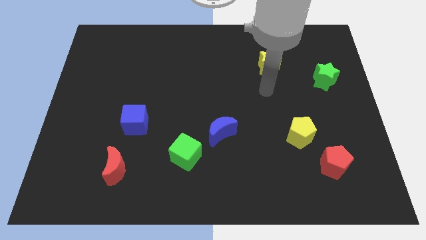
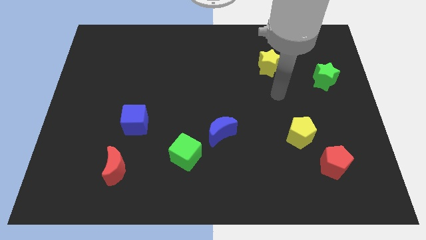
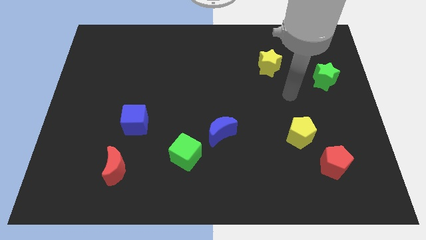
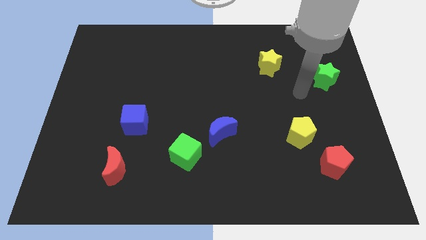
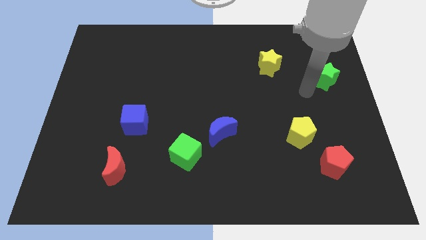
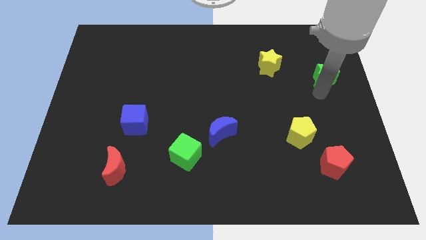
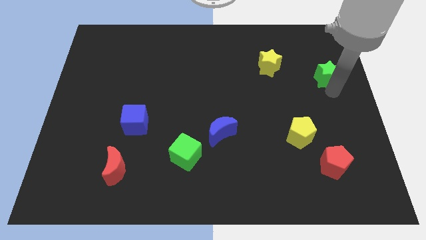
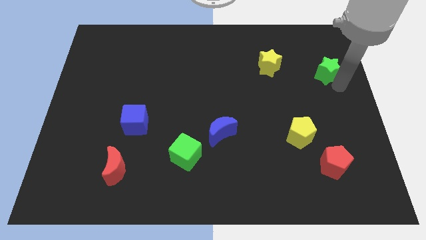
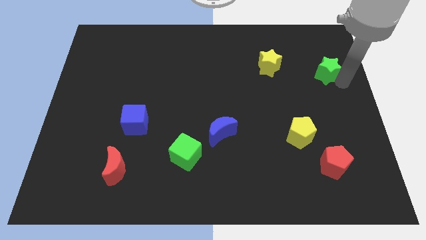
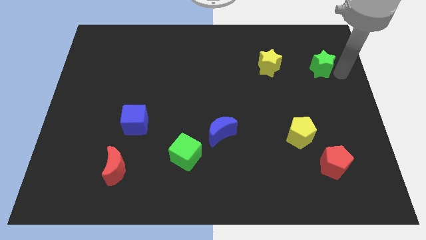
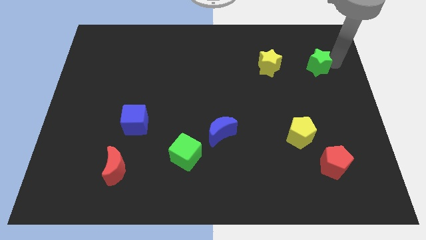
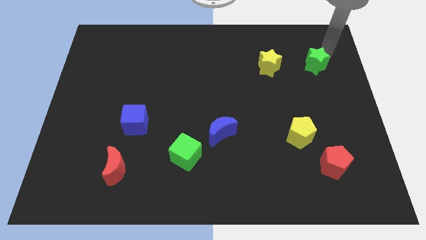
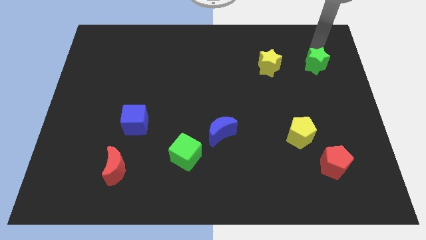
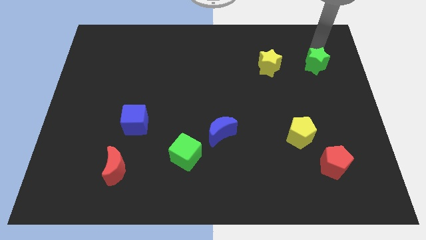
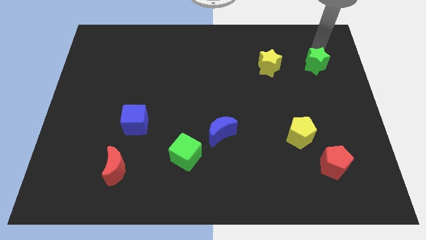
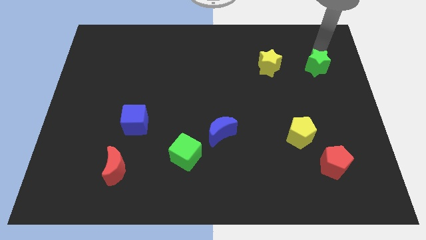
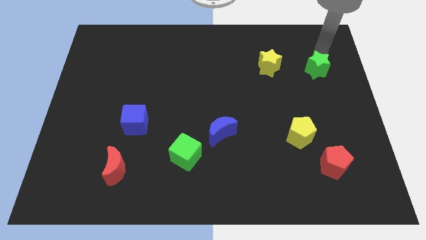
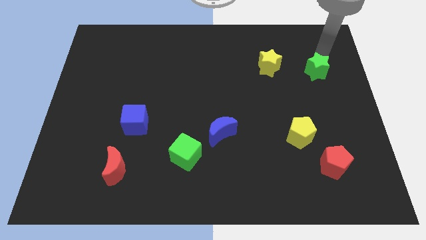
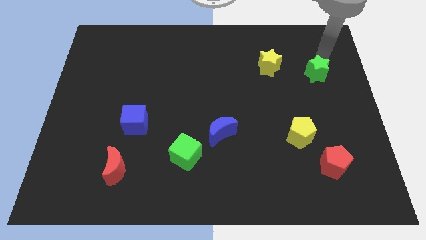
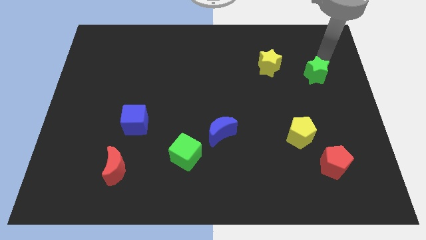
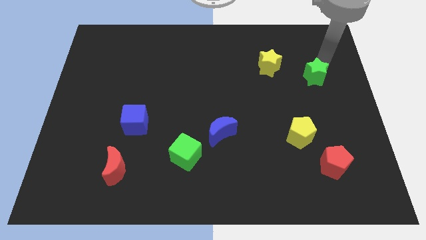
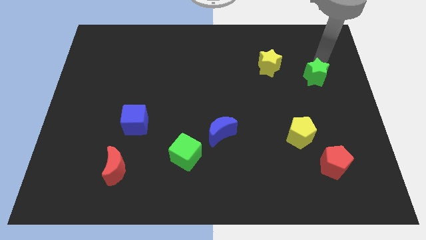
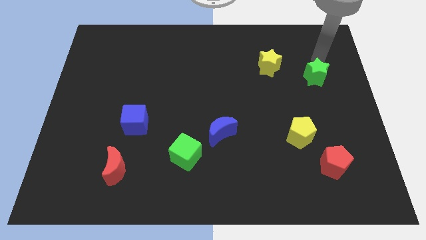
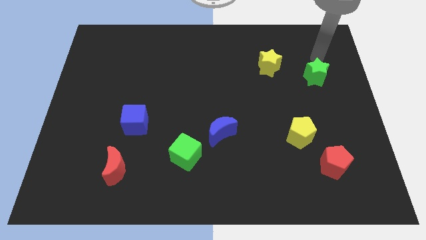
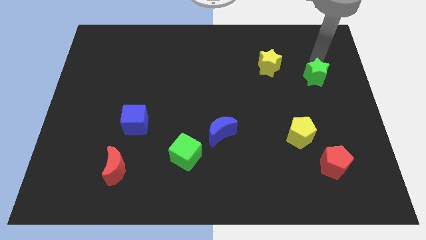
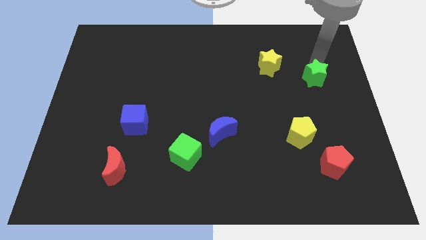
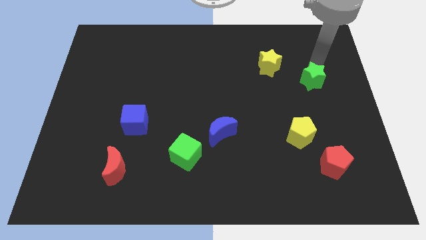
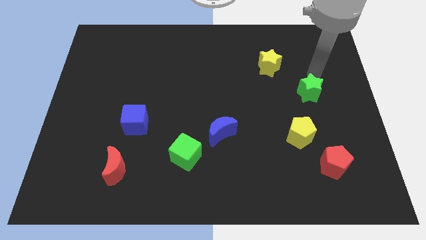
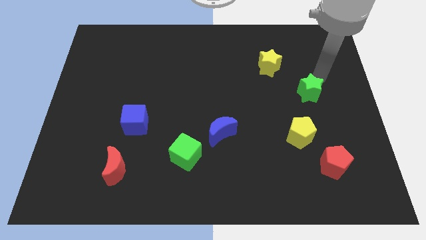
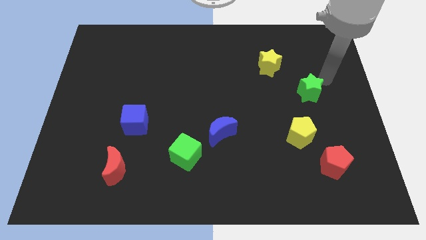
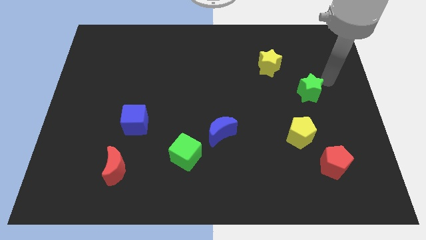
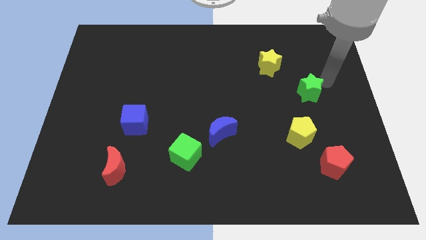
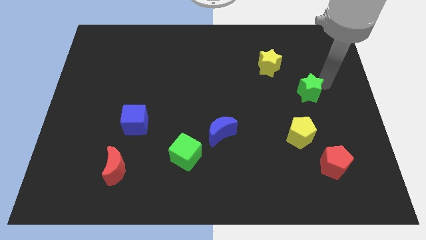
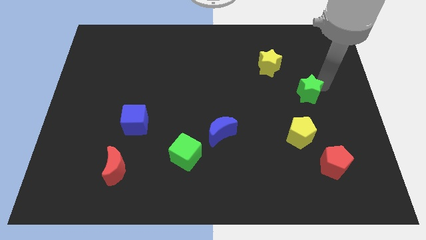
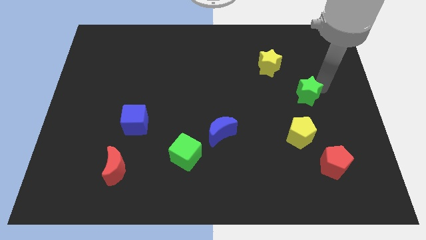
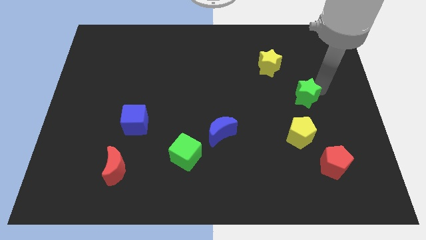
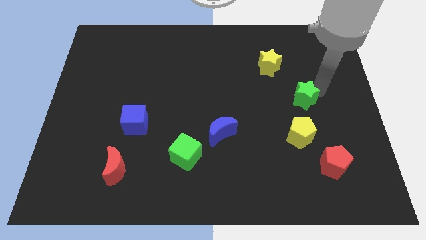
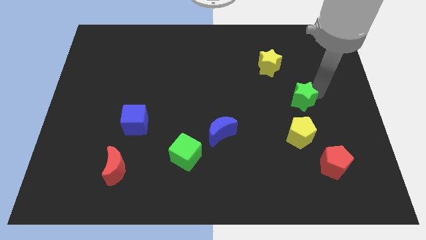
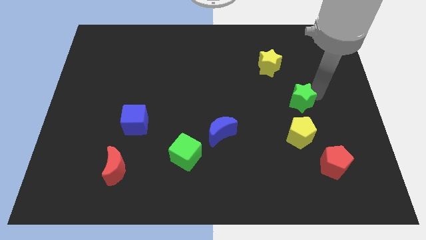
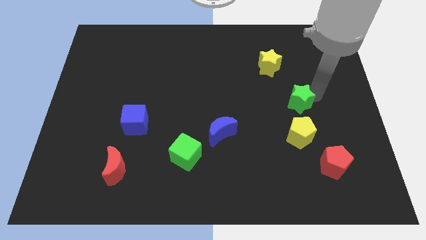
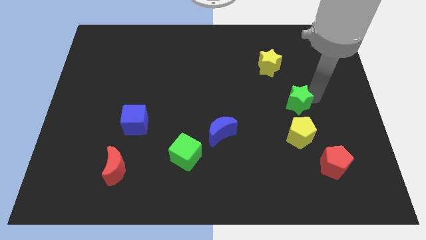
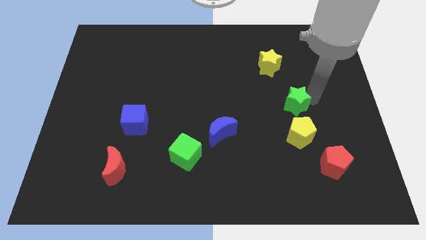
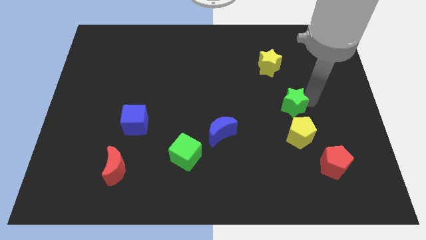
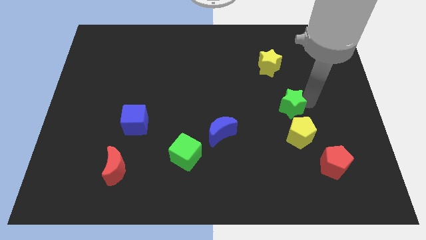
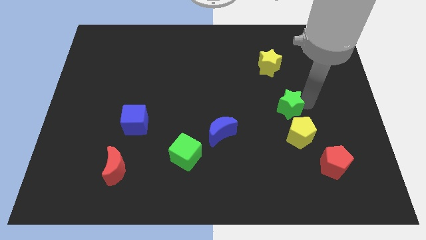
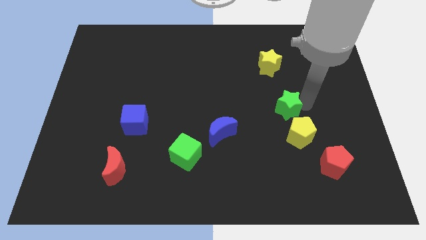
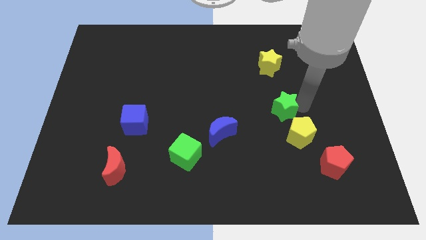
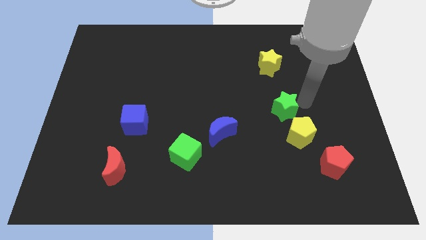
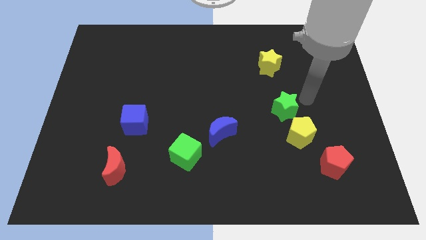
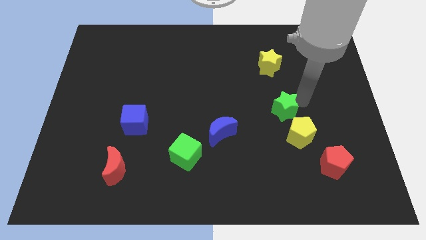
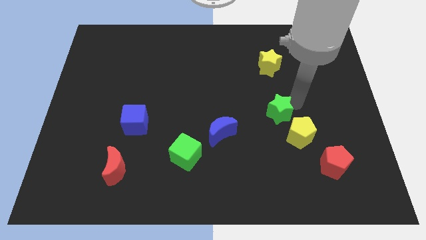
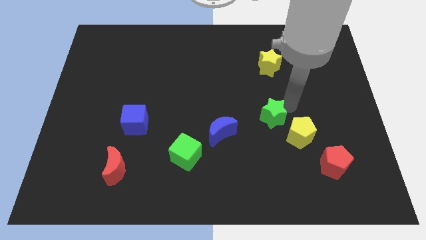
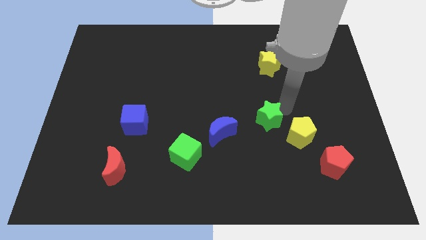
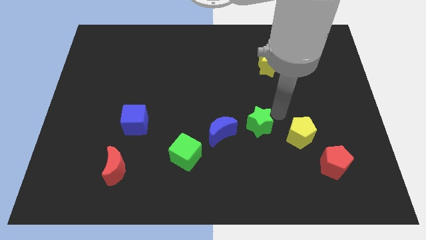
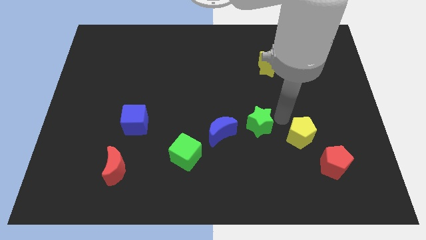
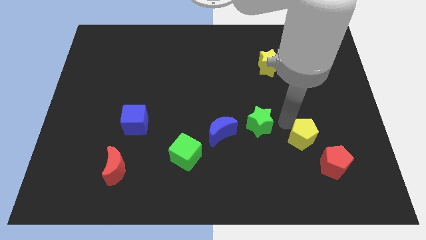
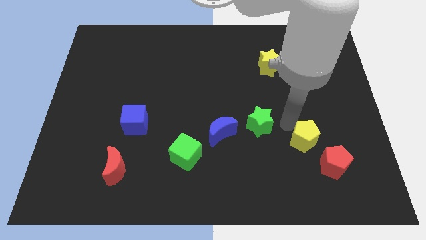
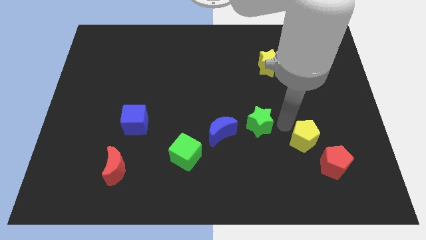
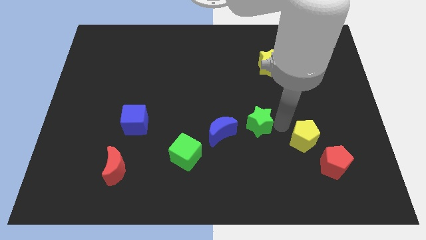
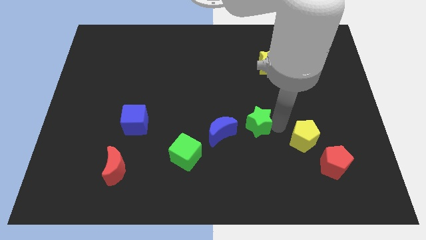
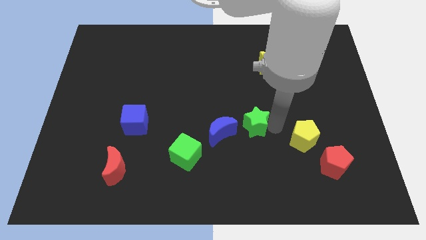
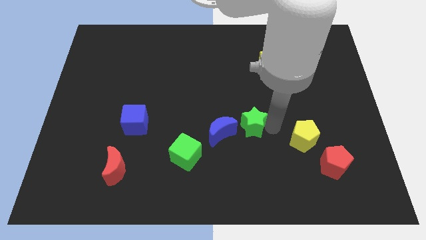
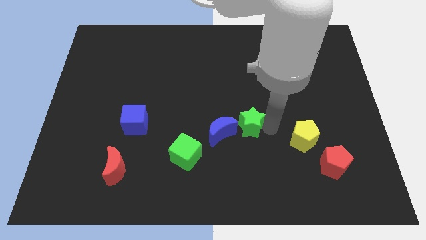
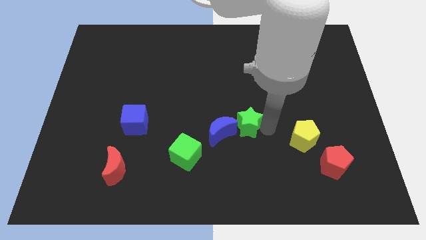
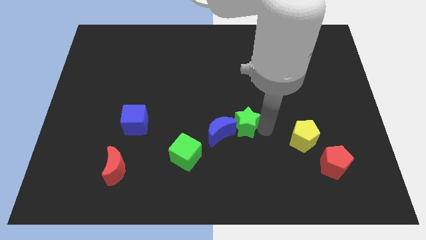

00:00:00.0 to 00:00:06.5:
slide the green star to the blue moon
